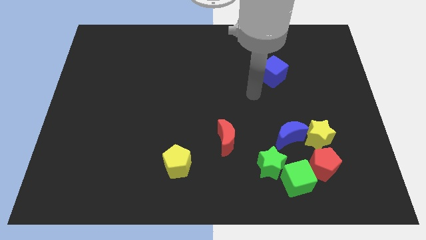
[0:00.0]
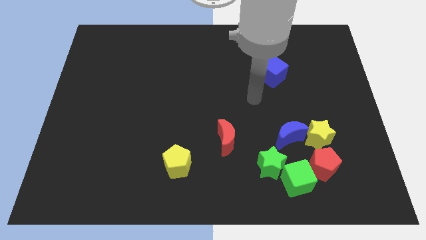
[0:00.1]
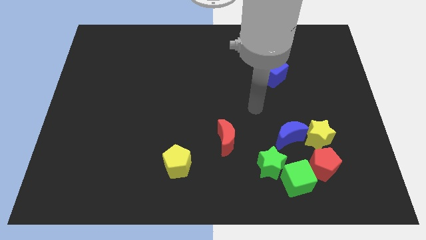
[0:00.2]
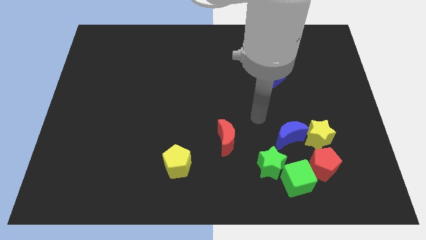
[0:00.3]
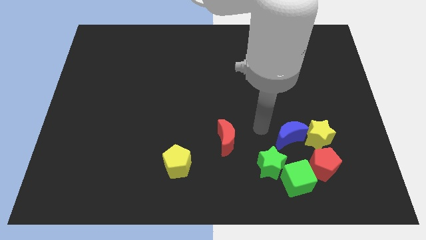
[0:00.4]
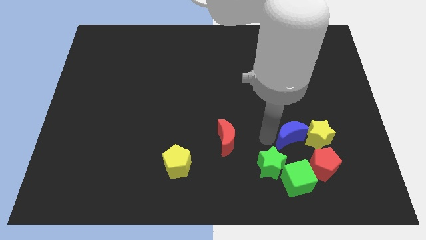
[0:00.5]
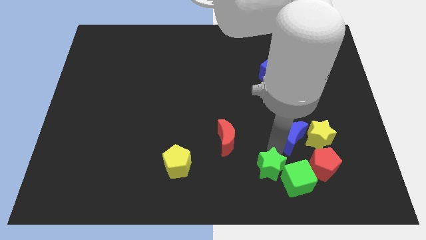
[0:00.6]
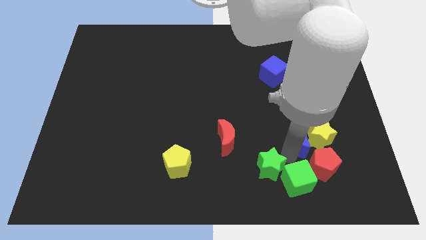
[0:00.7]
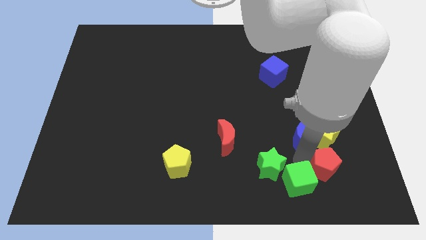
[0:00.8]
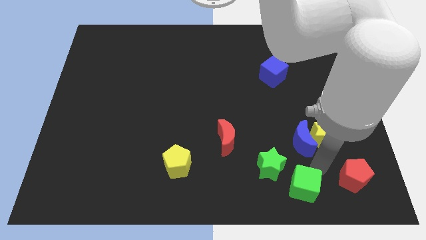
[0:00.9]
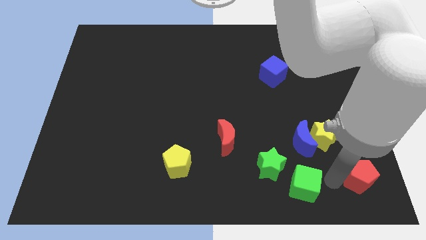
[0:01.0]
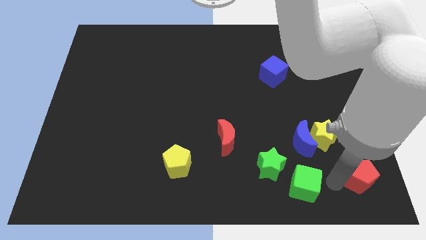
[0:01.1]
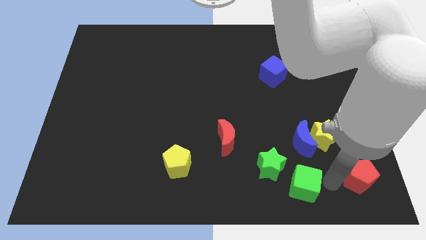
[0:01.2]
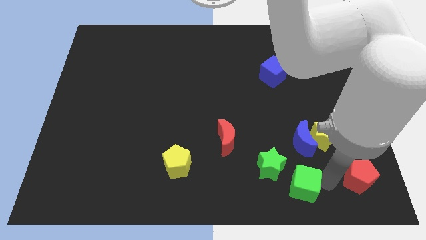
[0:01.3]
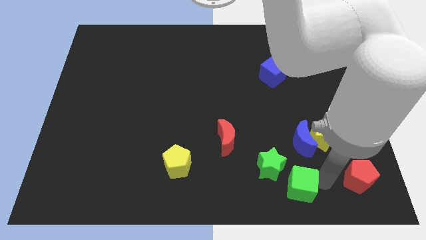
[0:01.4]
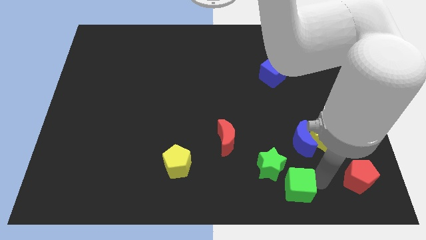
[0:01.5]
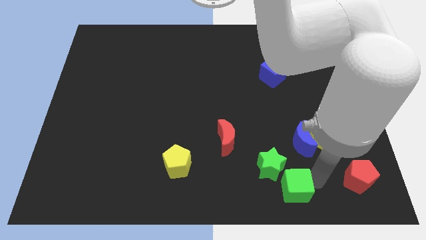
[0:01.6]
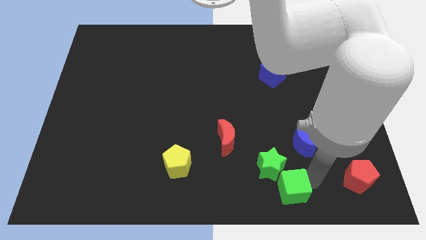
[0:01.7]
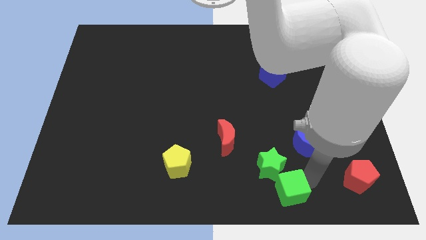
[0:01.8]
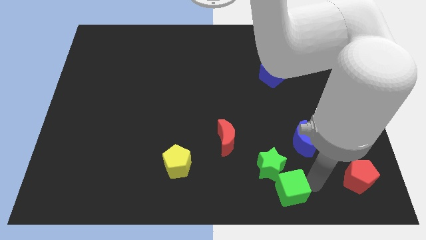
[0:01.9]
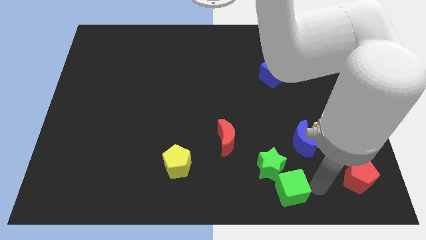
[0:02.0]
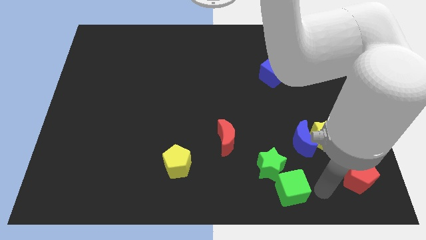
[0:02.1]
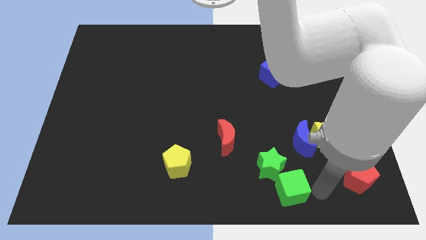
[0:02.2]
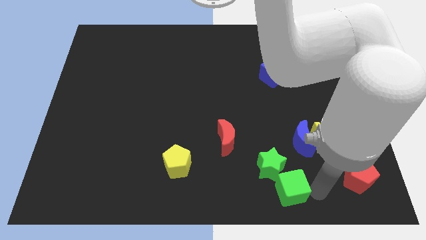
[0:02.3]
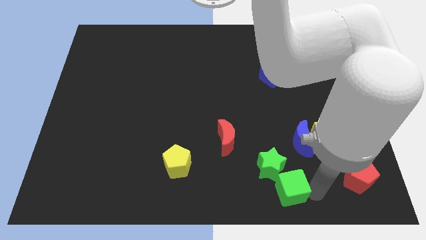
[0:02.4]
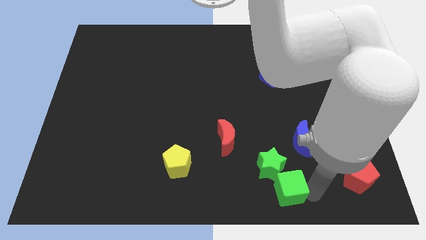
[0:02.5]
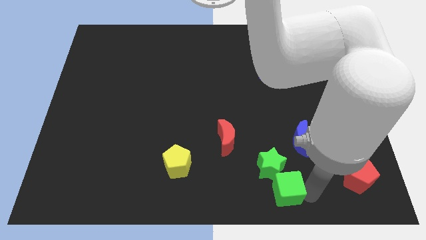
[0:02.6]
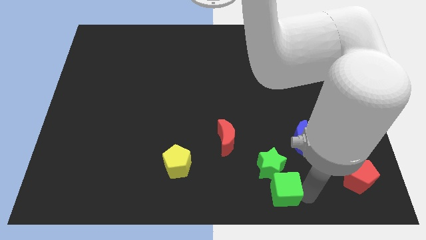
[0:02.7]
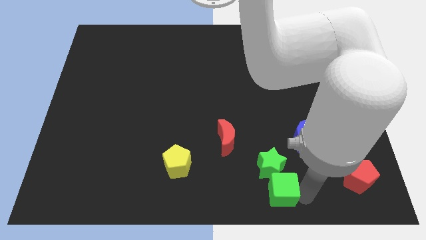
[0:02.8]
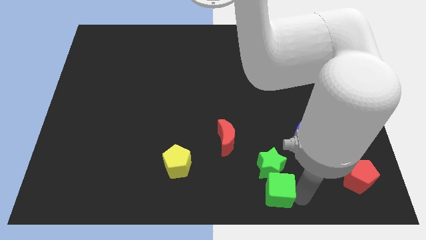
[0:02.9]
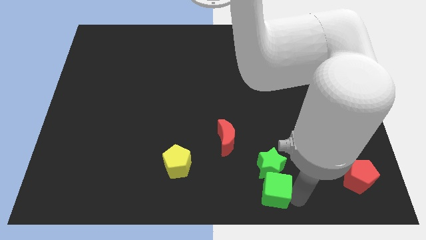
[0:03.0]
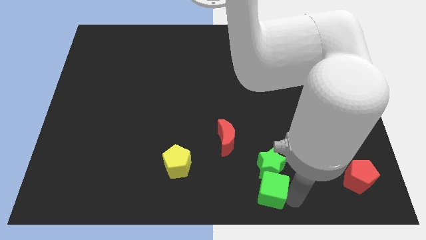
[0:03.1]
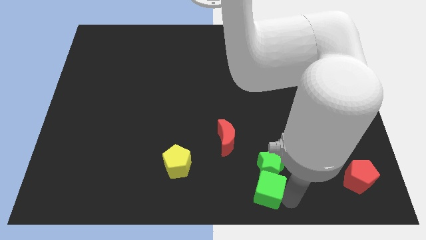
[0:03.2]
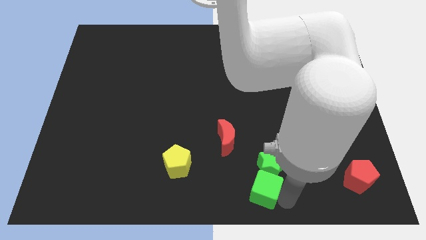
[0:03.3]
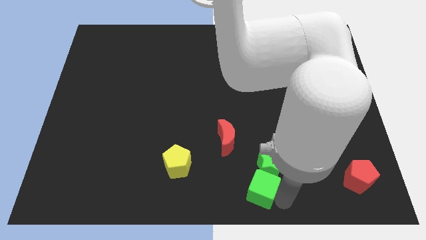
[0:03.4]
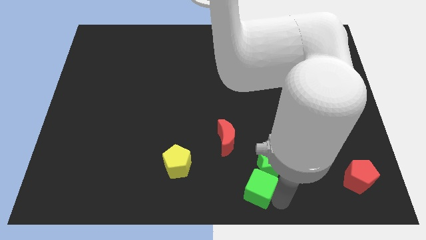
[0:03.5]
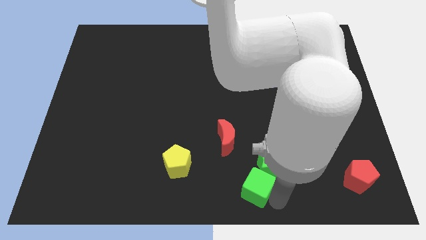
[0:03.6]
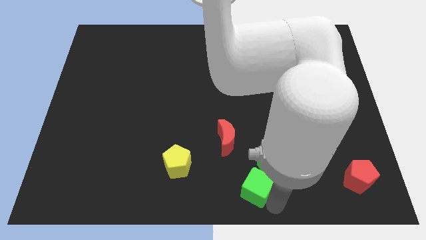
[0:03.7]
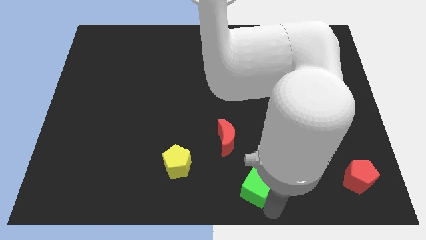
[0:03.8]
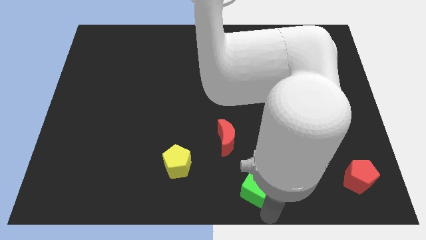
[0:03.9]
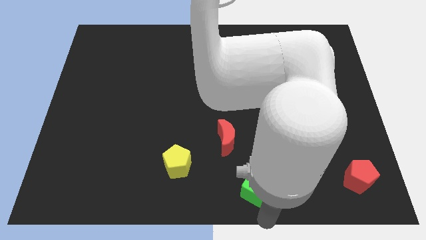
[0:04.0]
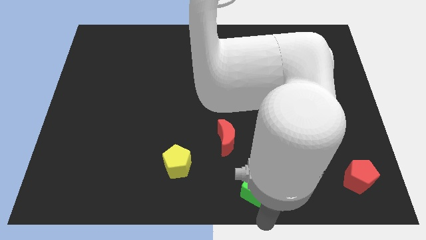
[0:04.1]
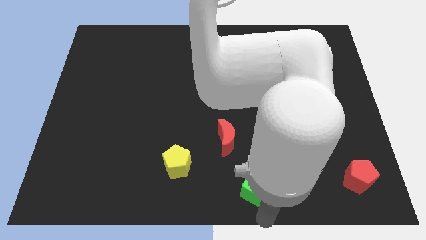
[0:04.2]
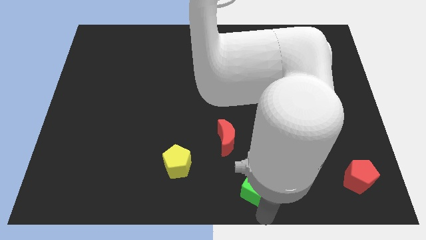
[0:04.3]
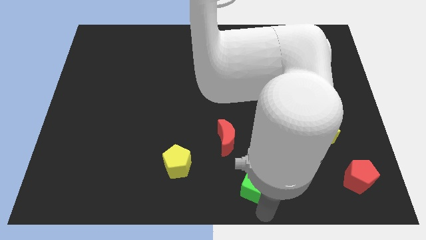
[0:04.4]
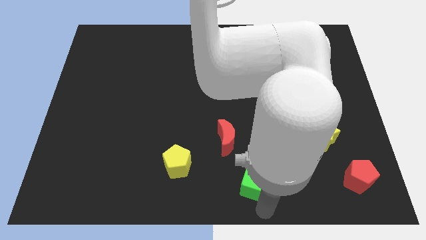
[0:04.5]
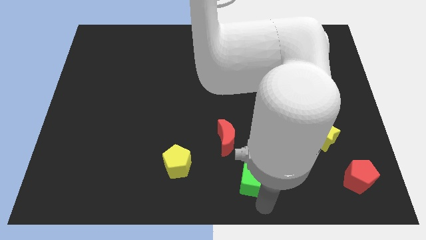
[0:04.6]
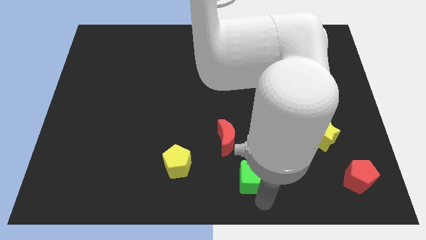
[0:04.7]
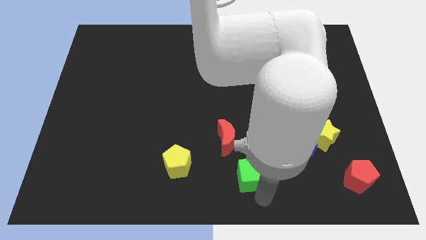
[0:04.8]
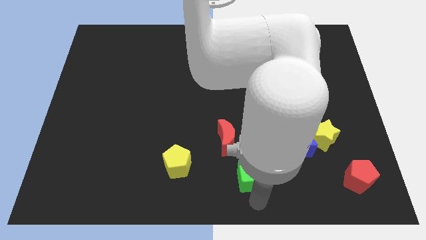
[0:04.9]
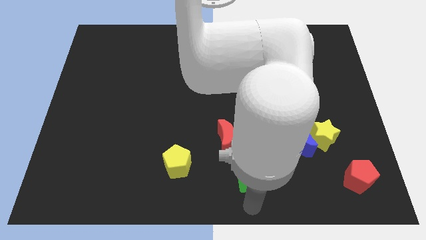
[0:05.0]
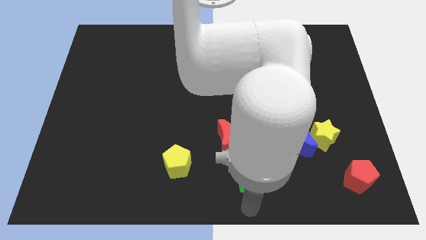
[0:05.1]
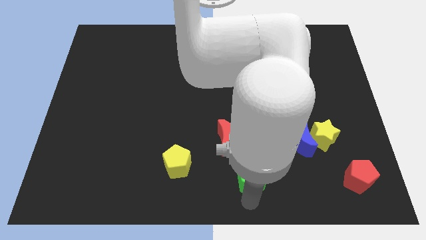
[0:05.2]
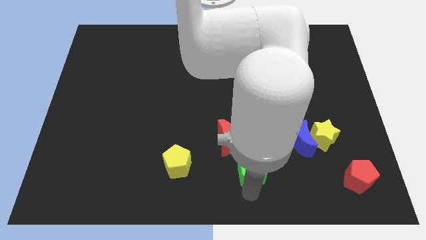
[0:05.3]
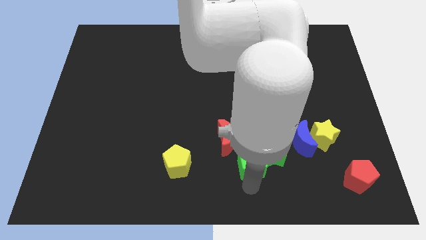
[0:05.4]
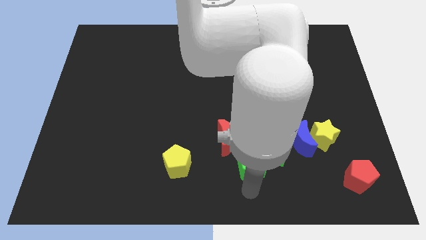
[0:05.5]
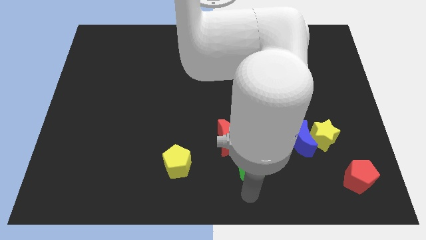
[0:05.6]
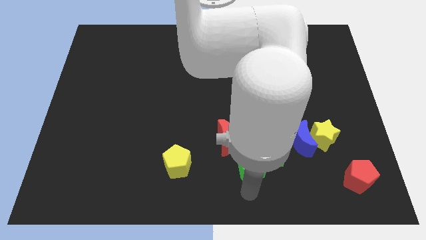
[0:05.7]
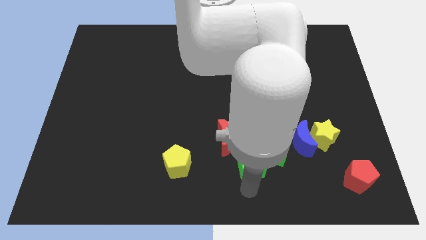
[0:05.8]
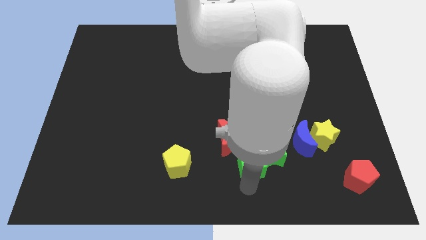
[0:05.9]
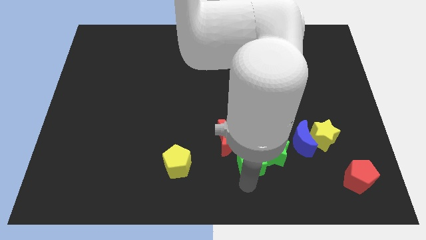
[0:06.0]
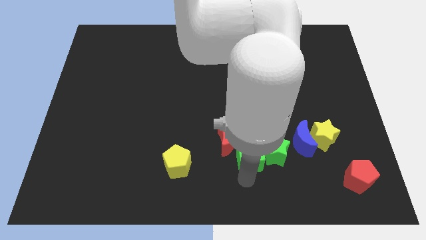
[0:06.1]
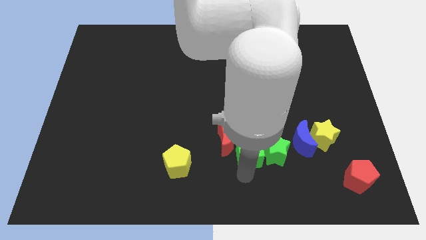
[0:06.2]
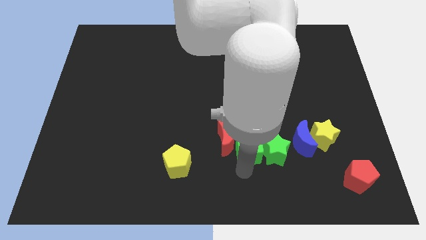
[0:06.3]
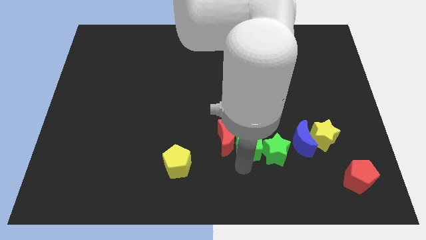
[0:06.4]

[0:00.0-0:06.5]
put the green cube diagonally up and to the right of the red moon
